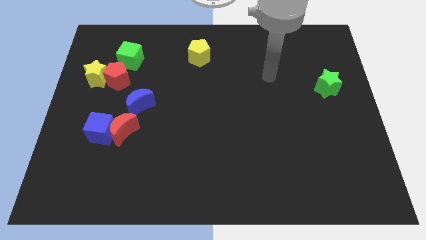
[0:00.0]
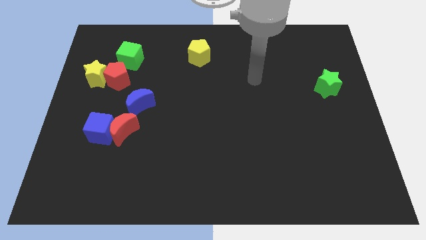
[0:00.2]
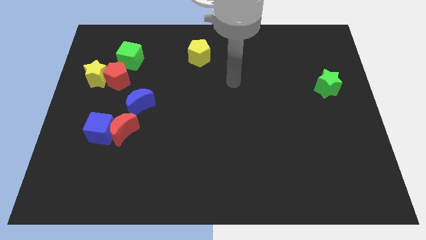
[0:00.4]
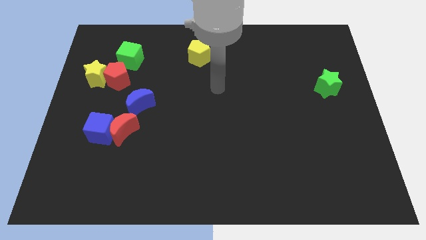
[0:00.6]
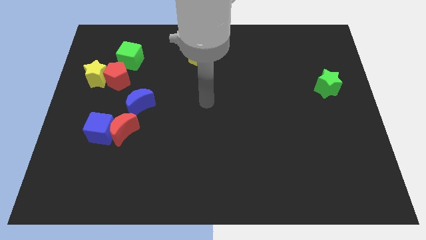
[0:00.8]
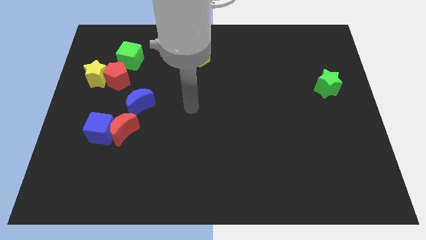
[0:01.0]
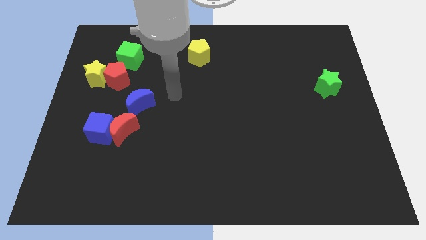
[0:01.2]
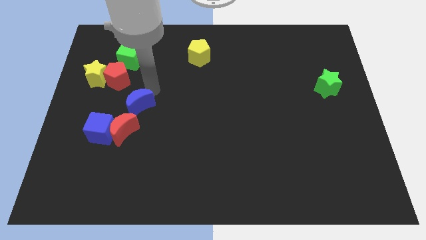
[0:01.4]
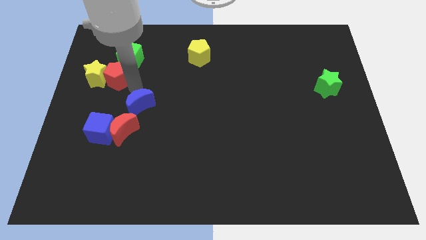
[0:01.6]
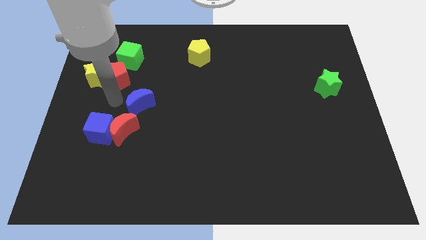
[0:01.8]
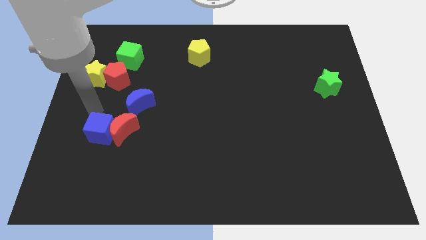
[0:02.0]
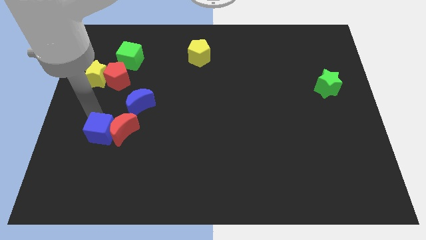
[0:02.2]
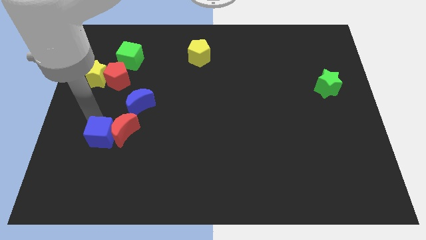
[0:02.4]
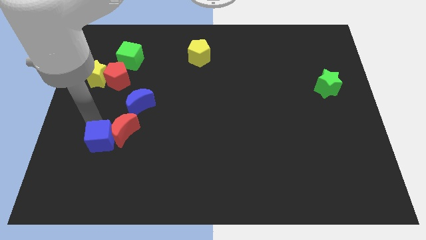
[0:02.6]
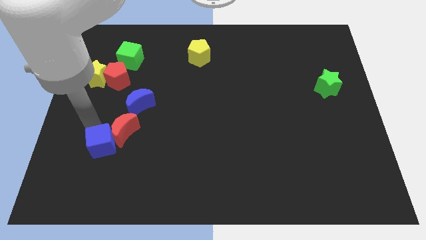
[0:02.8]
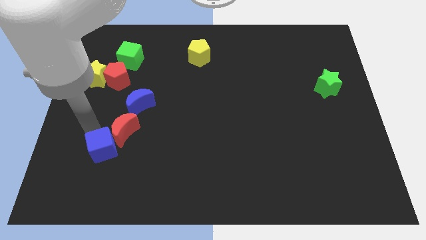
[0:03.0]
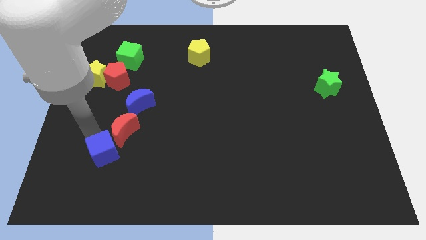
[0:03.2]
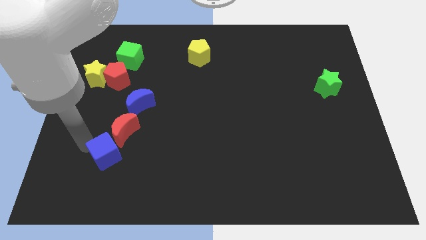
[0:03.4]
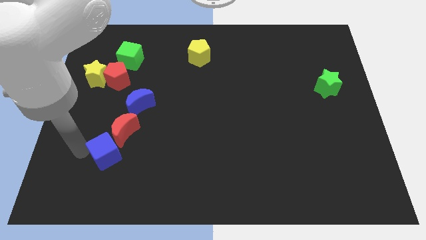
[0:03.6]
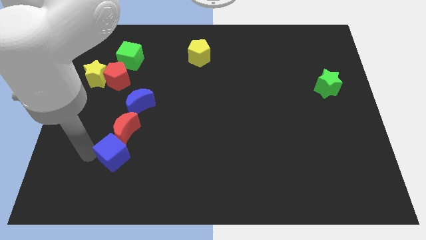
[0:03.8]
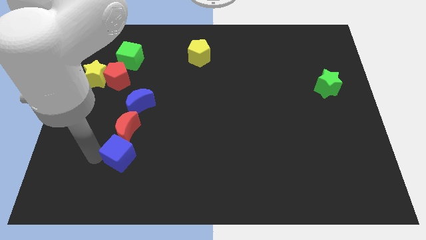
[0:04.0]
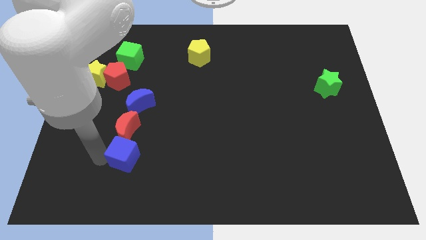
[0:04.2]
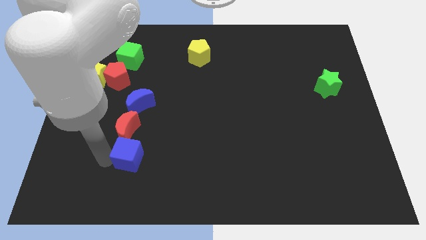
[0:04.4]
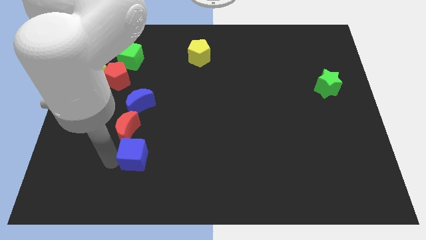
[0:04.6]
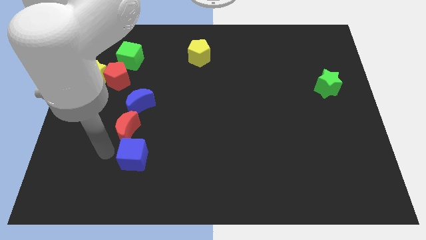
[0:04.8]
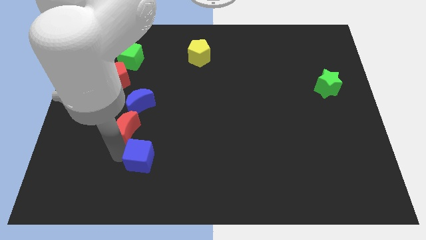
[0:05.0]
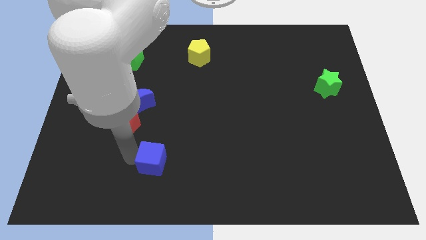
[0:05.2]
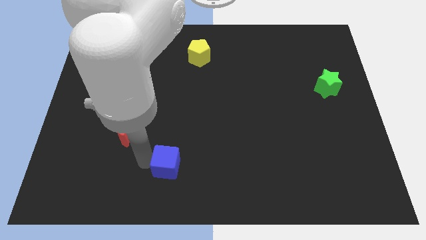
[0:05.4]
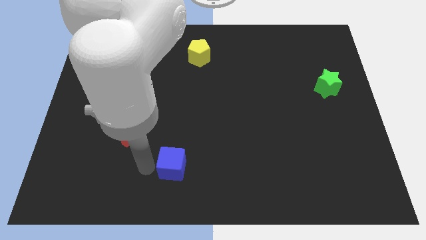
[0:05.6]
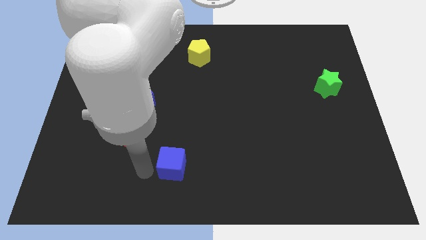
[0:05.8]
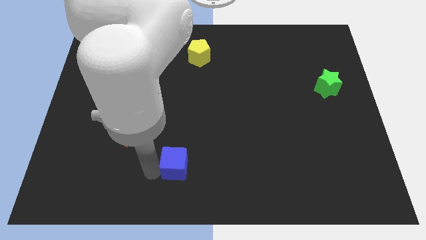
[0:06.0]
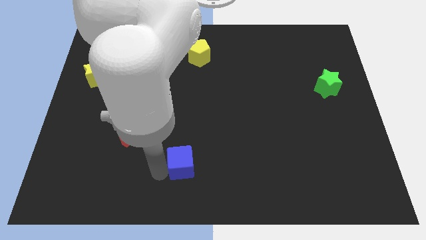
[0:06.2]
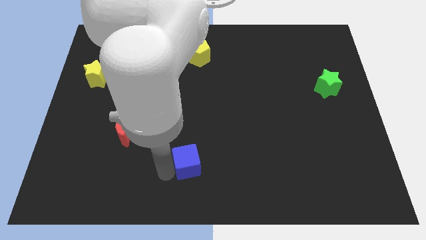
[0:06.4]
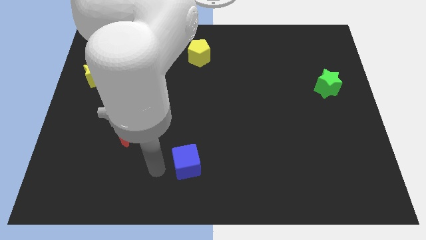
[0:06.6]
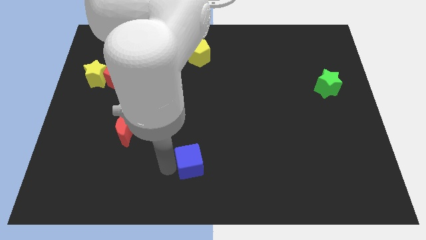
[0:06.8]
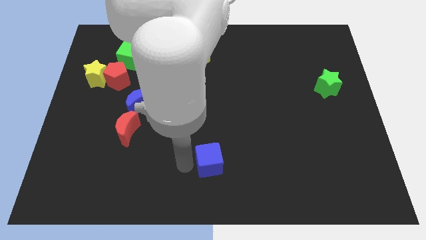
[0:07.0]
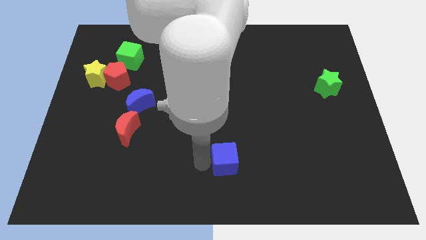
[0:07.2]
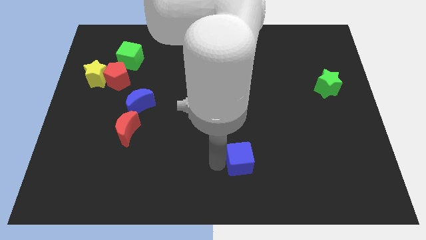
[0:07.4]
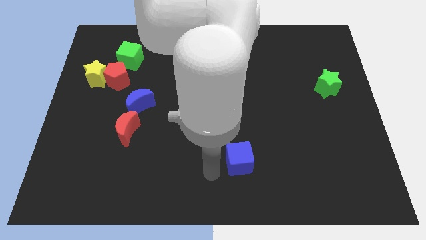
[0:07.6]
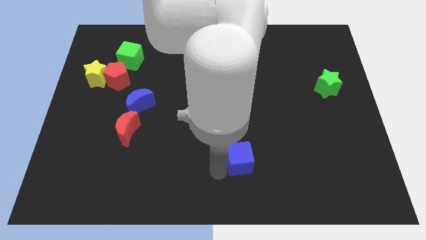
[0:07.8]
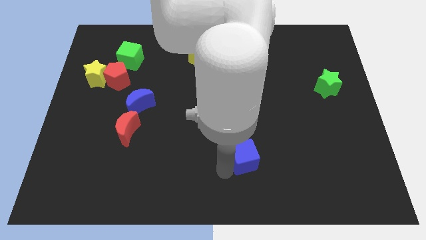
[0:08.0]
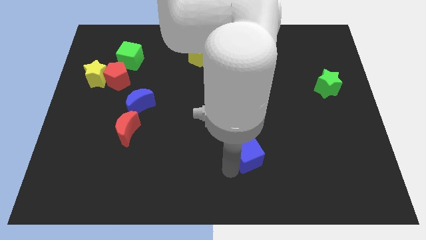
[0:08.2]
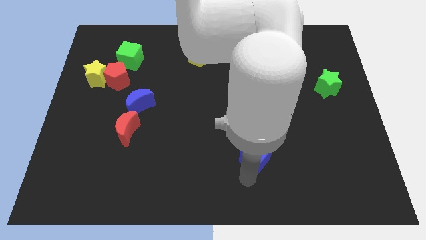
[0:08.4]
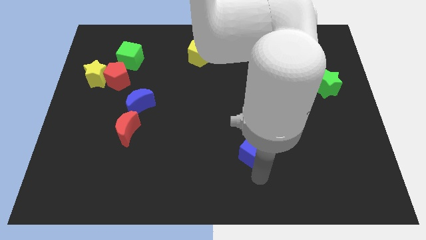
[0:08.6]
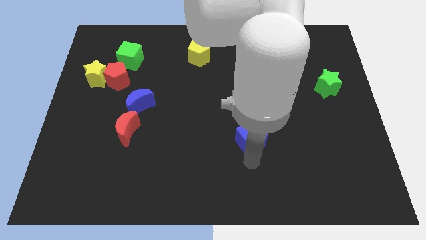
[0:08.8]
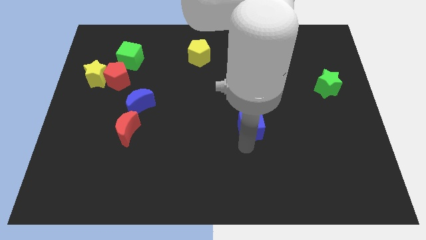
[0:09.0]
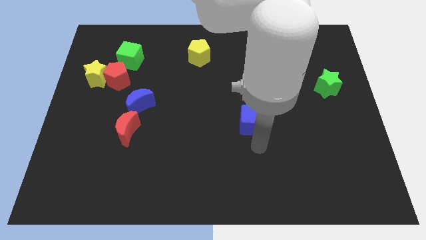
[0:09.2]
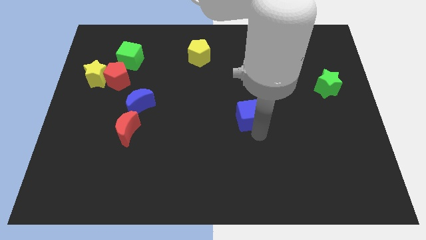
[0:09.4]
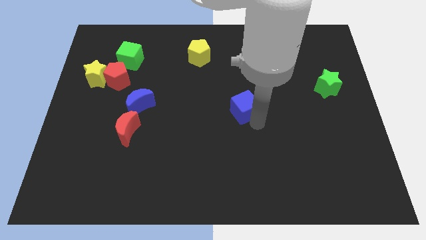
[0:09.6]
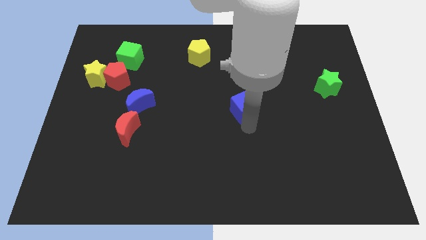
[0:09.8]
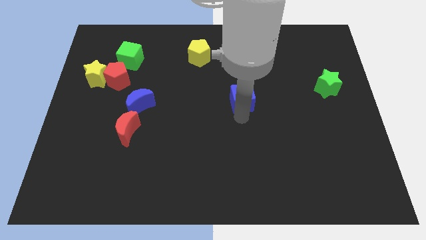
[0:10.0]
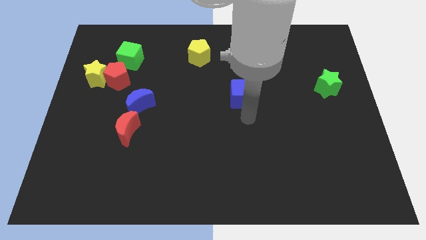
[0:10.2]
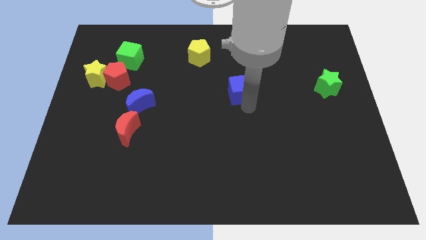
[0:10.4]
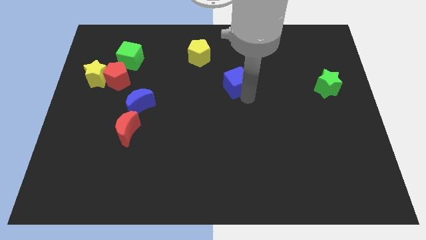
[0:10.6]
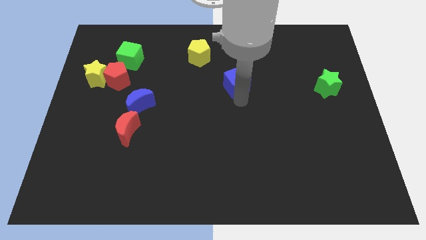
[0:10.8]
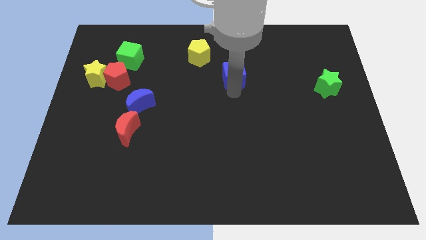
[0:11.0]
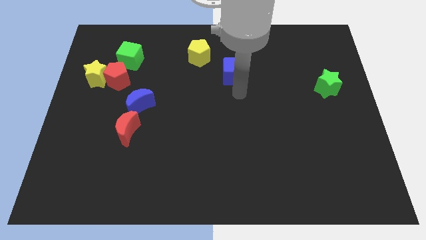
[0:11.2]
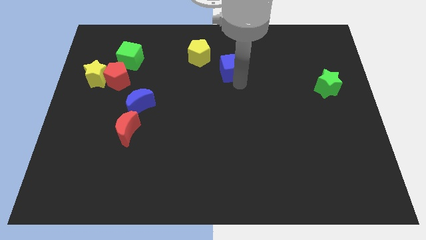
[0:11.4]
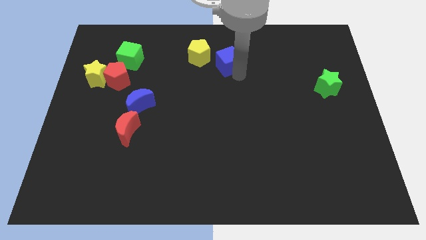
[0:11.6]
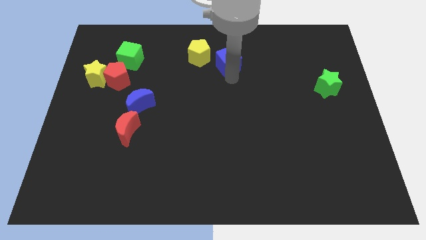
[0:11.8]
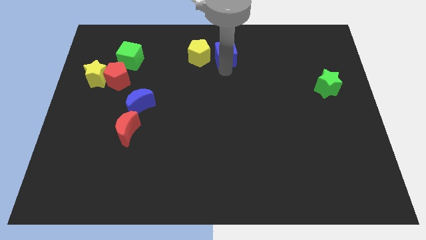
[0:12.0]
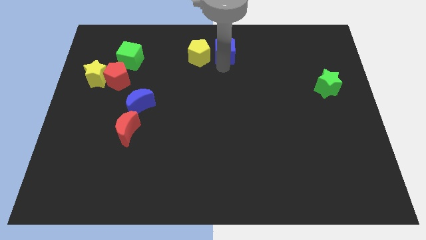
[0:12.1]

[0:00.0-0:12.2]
slide the blue cube to the top

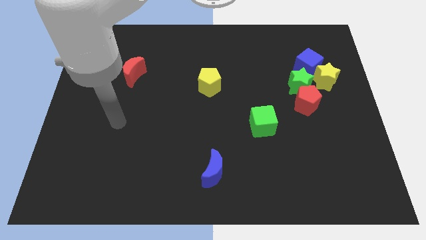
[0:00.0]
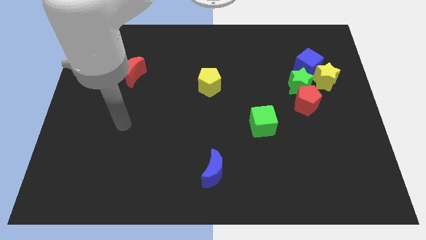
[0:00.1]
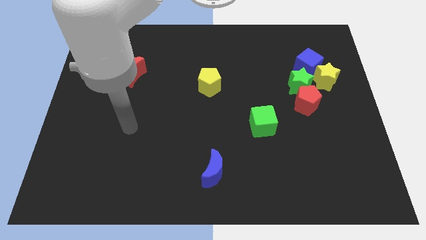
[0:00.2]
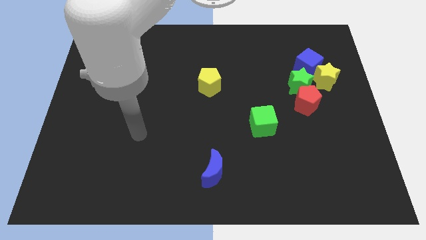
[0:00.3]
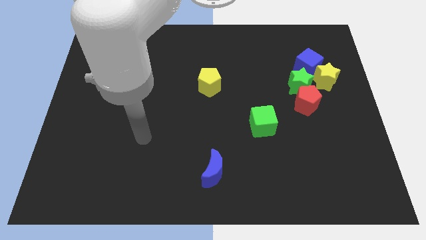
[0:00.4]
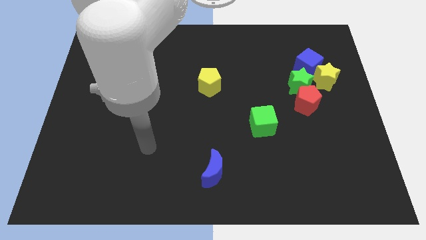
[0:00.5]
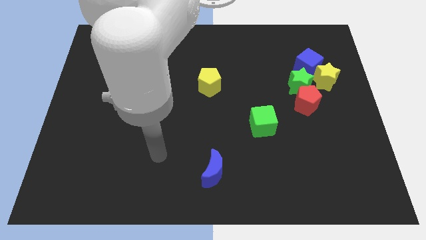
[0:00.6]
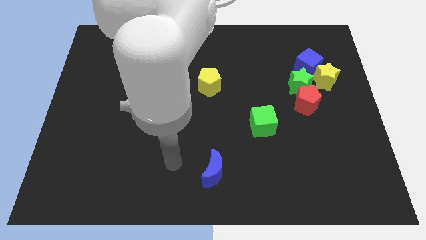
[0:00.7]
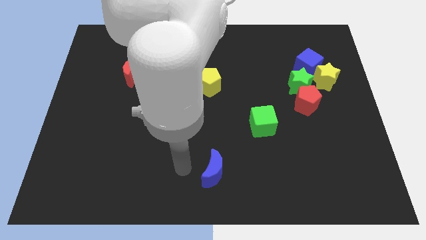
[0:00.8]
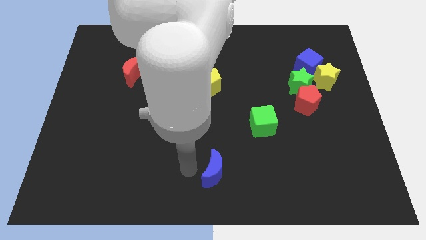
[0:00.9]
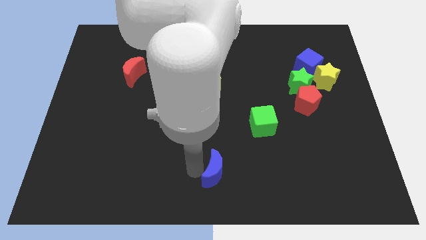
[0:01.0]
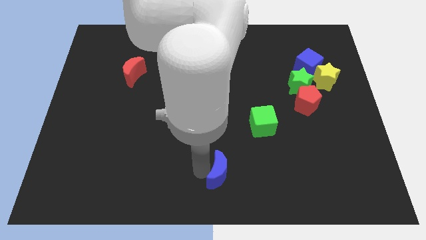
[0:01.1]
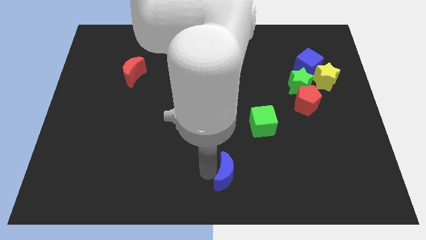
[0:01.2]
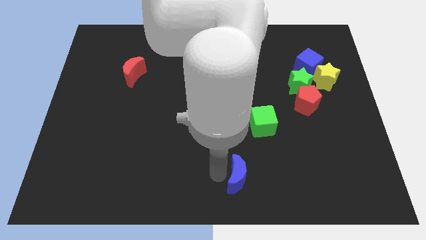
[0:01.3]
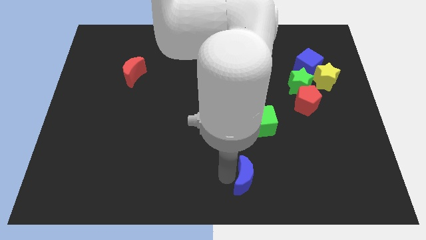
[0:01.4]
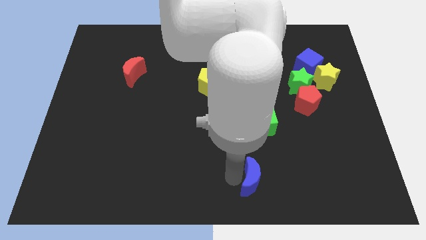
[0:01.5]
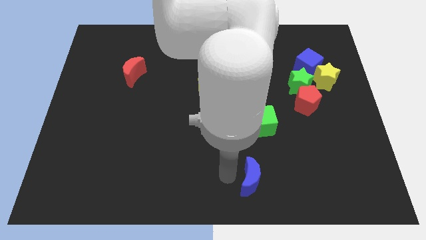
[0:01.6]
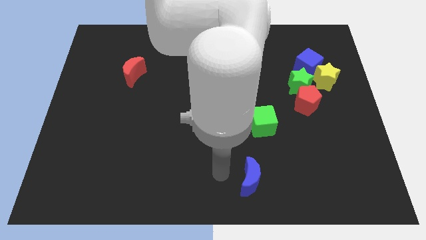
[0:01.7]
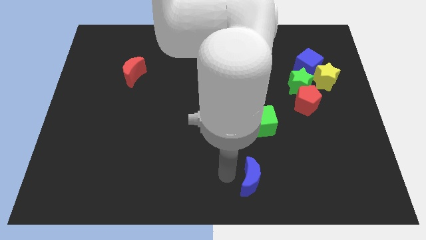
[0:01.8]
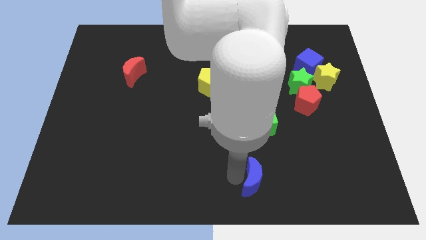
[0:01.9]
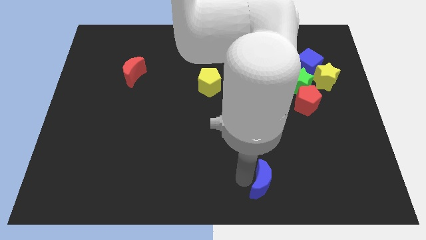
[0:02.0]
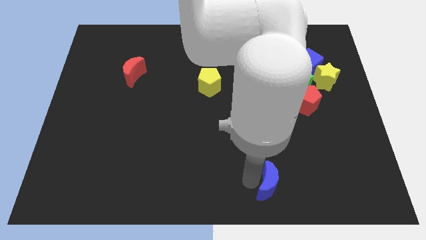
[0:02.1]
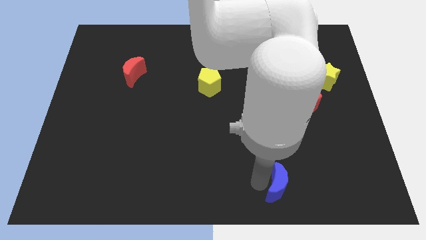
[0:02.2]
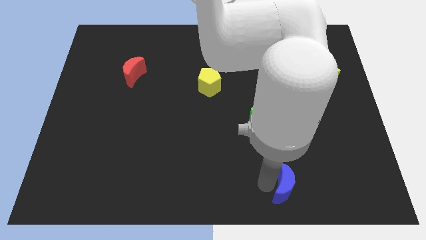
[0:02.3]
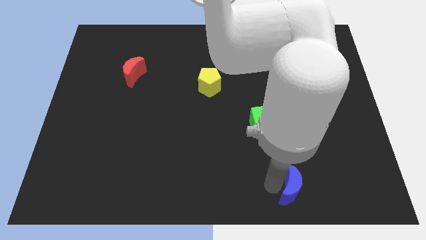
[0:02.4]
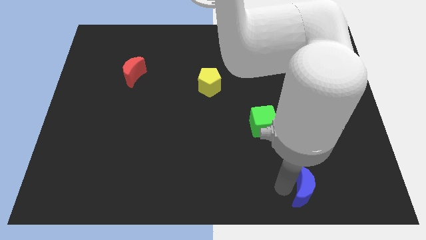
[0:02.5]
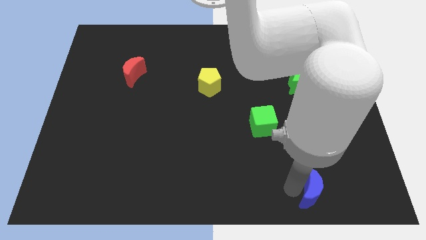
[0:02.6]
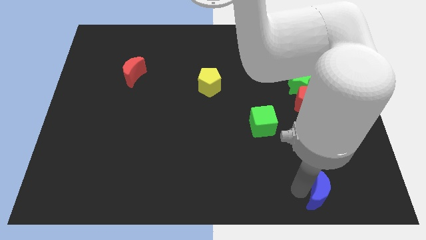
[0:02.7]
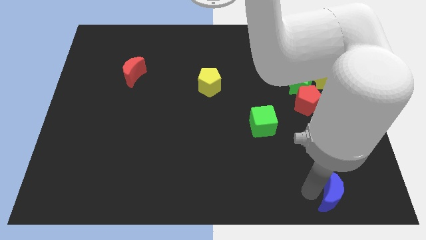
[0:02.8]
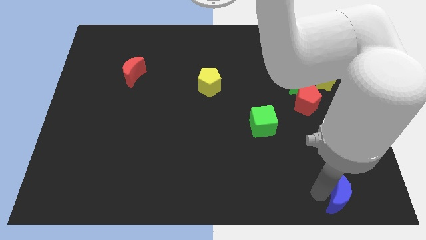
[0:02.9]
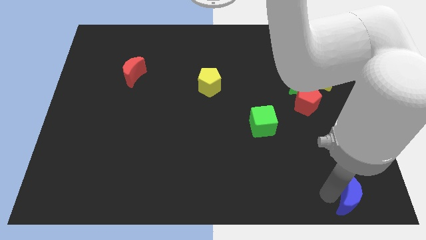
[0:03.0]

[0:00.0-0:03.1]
push the blue moon to the bottom right of the board
